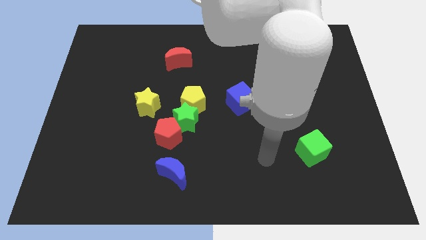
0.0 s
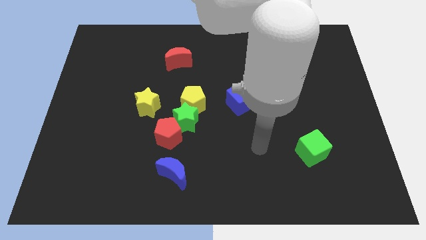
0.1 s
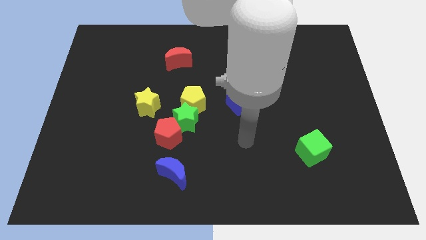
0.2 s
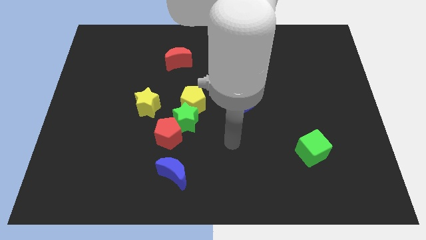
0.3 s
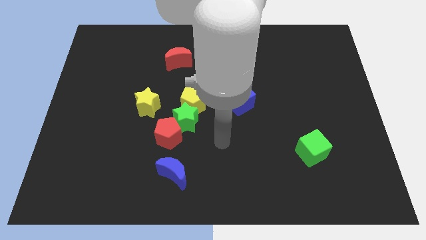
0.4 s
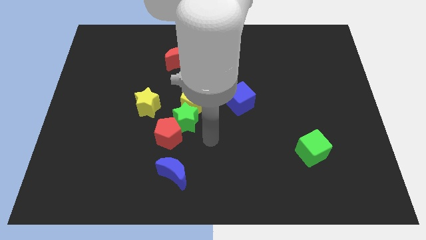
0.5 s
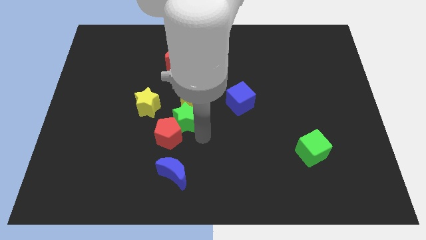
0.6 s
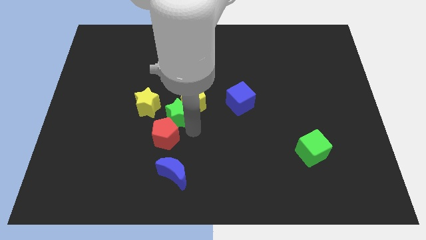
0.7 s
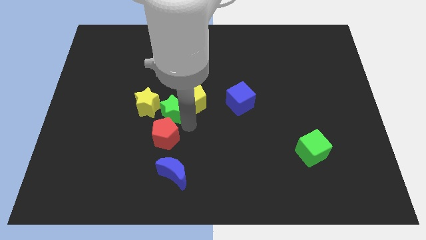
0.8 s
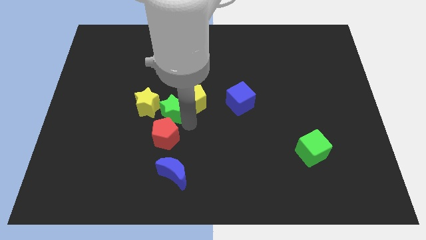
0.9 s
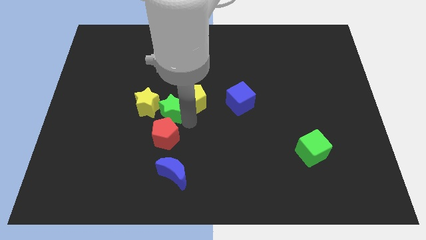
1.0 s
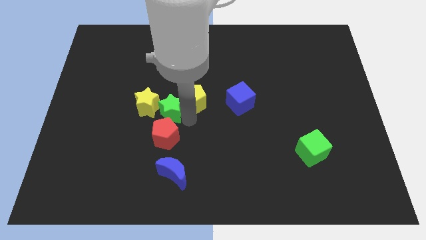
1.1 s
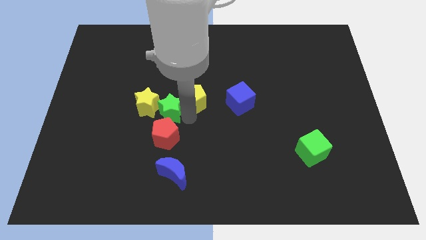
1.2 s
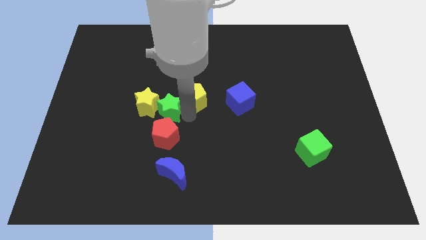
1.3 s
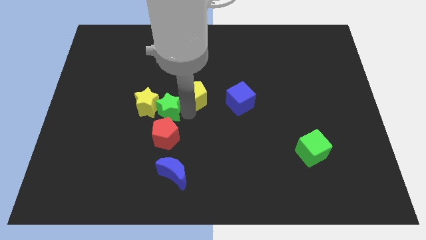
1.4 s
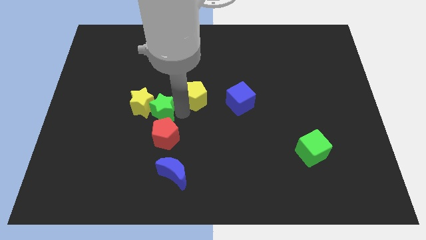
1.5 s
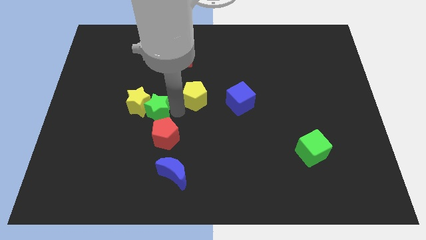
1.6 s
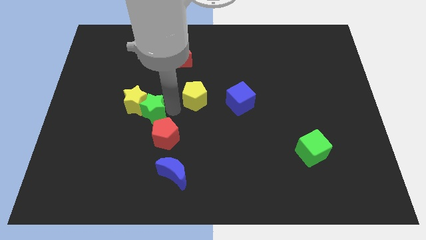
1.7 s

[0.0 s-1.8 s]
separate the yellow pentagon from the green star

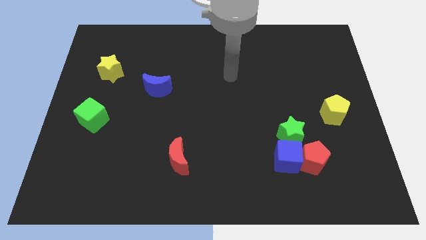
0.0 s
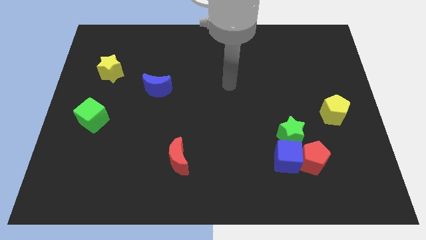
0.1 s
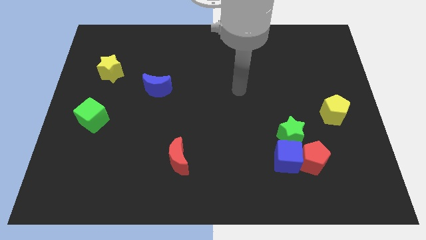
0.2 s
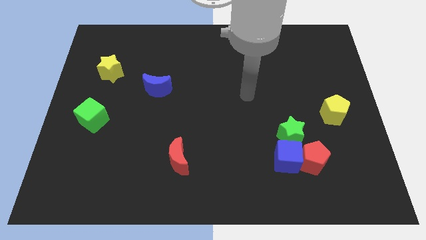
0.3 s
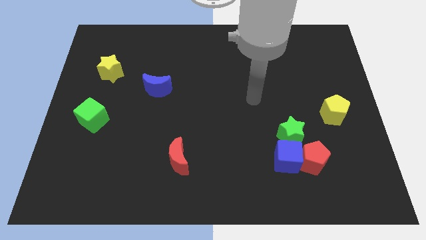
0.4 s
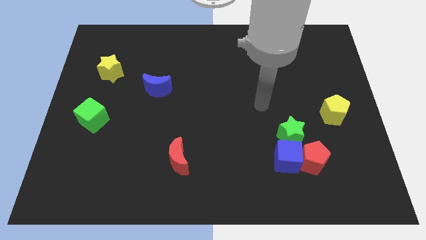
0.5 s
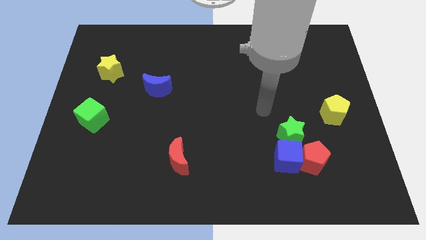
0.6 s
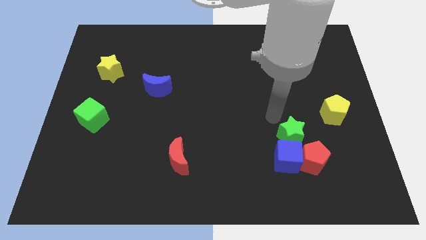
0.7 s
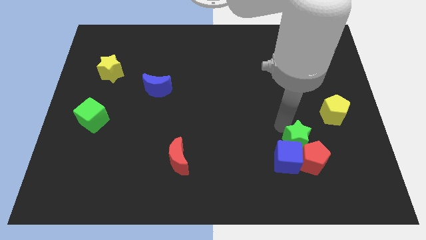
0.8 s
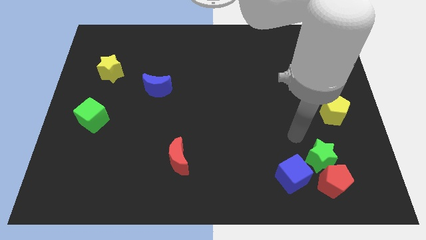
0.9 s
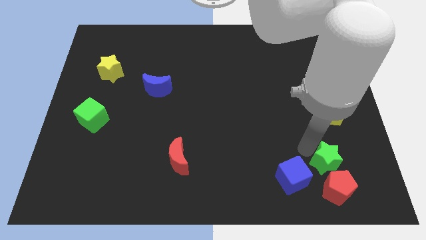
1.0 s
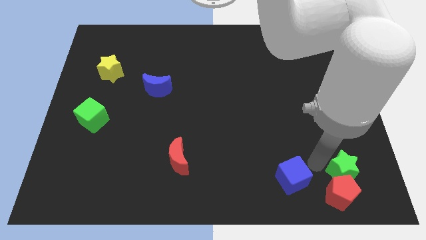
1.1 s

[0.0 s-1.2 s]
pull the blue cube apart from the red pentagon and green star

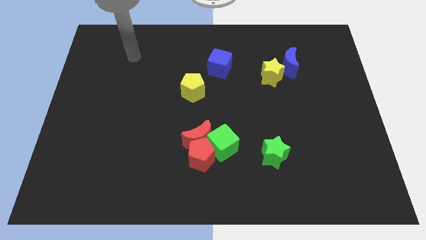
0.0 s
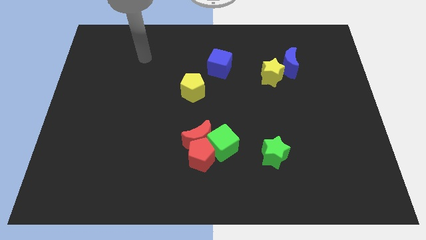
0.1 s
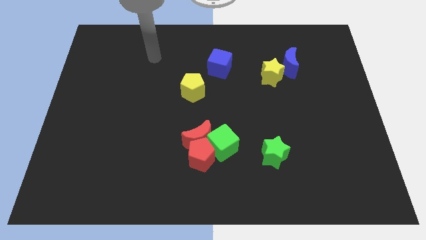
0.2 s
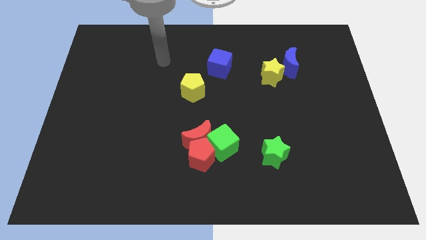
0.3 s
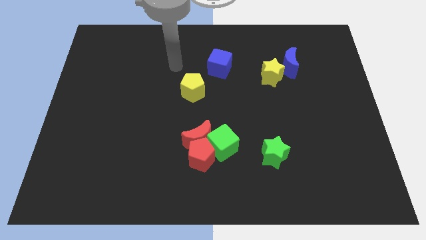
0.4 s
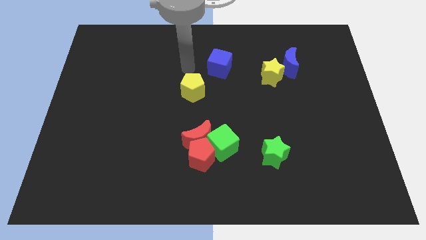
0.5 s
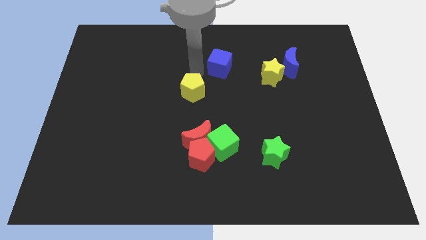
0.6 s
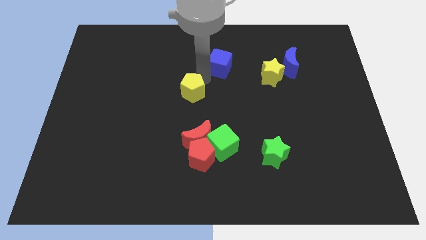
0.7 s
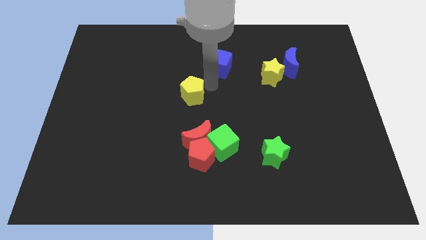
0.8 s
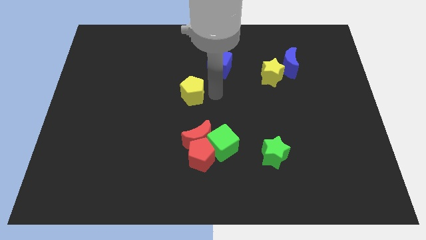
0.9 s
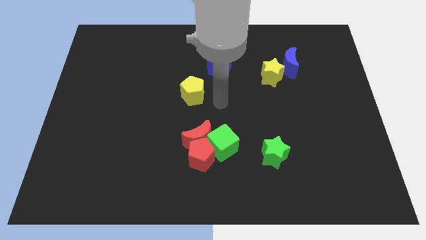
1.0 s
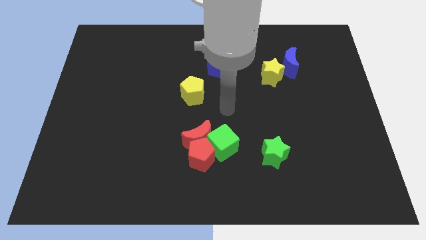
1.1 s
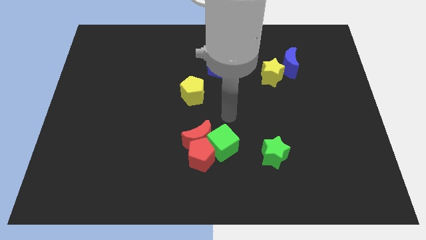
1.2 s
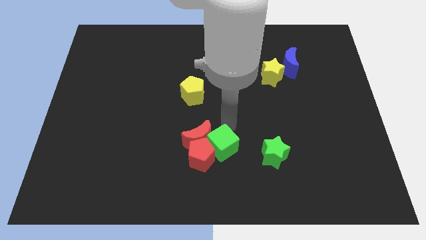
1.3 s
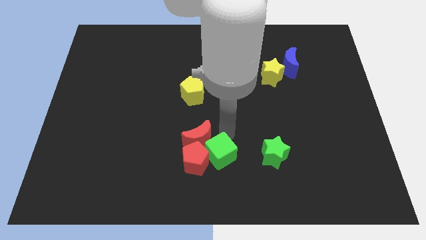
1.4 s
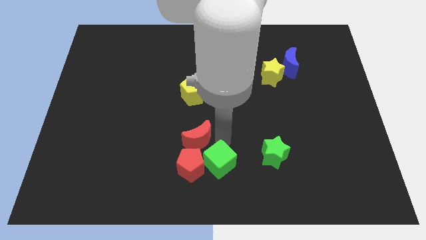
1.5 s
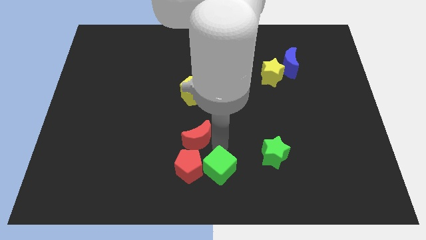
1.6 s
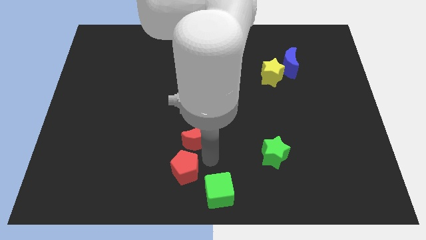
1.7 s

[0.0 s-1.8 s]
move the red moon away from the red pentagon and green cube

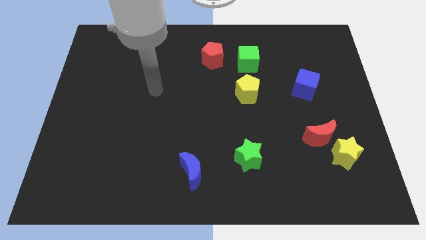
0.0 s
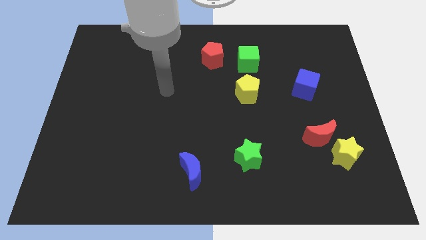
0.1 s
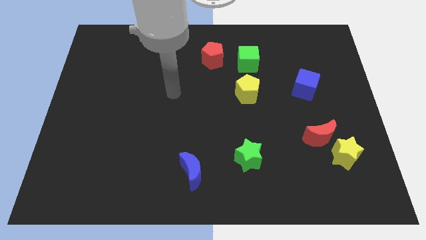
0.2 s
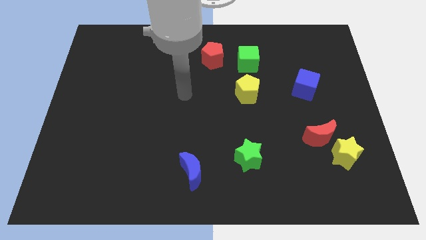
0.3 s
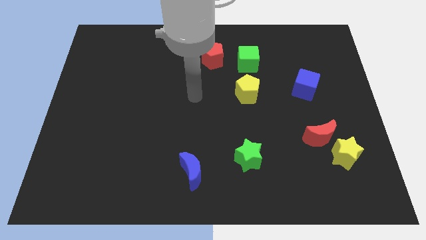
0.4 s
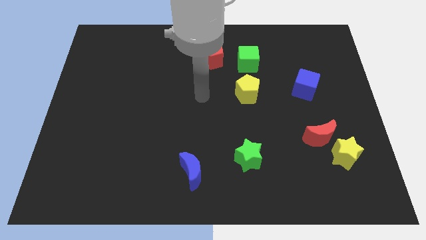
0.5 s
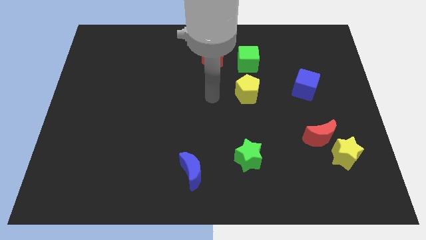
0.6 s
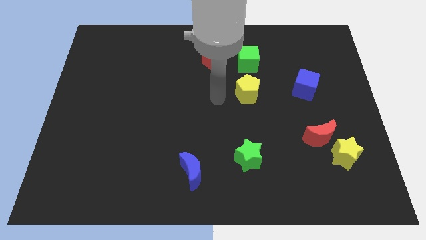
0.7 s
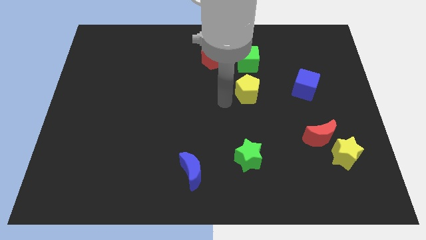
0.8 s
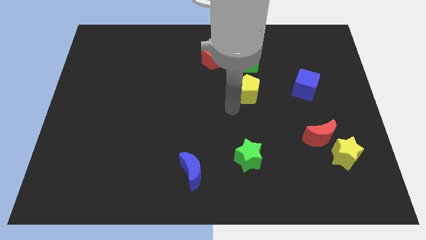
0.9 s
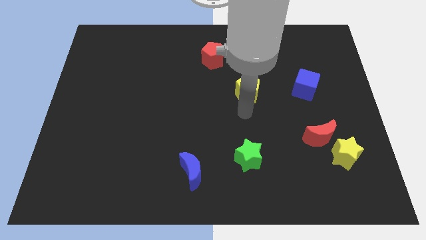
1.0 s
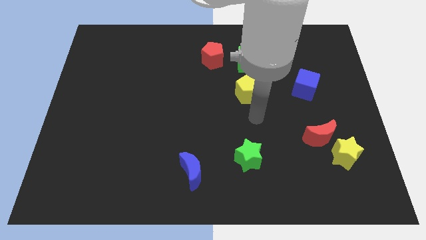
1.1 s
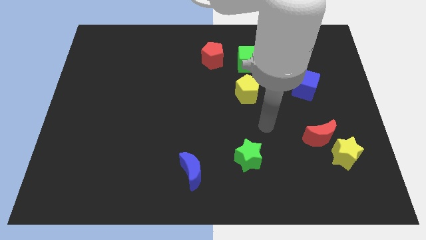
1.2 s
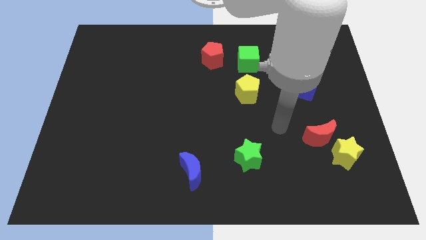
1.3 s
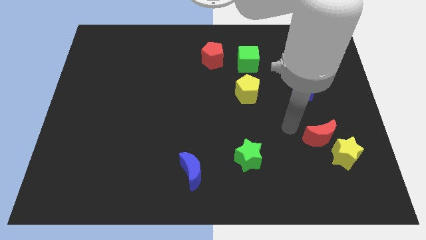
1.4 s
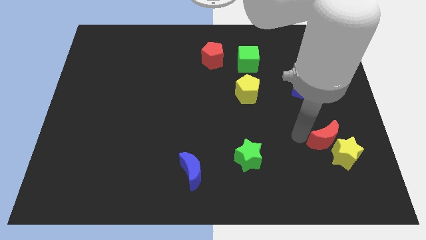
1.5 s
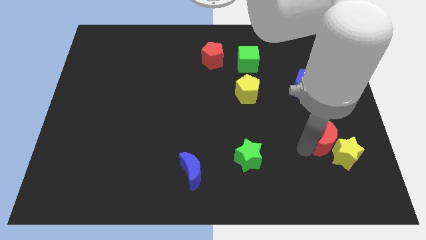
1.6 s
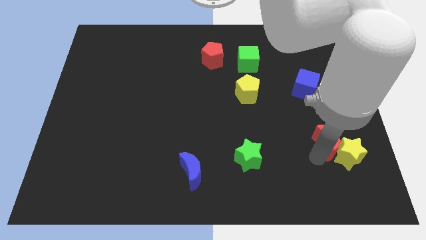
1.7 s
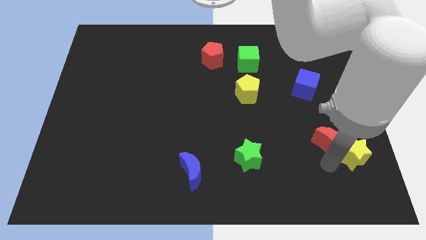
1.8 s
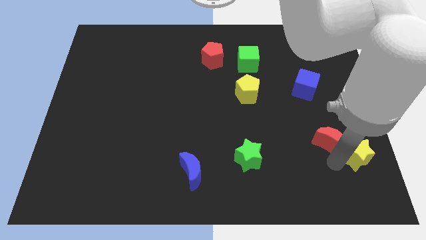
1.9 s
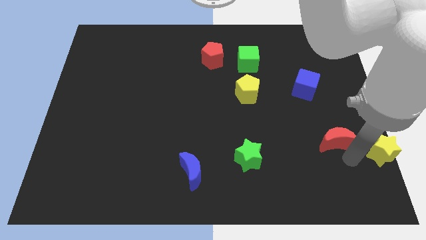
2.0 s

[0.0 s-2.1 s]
separate the red moon from the yellow star

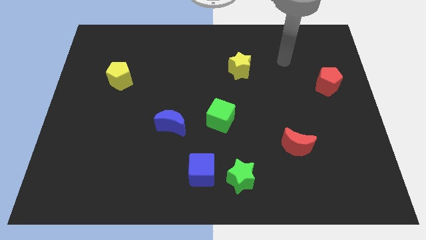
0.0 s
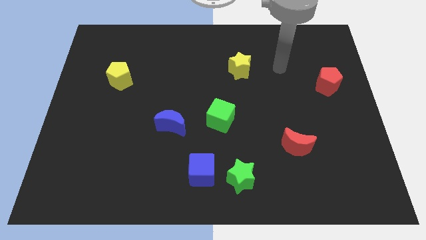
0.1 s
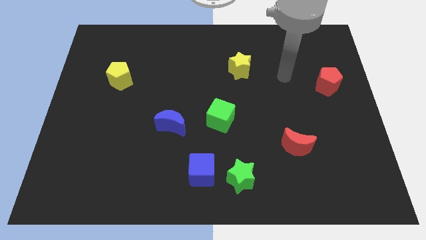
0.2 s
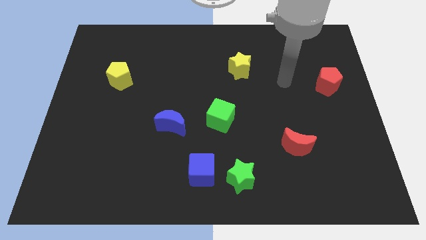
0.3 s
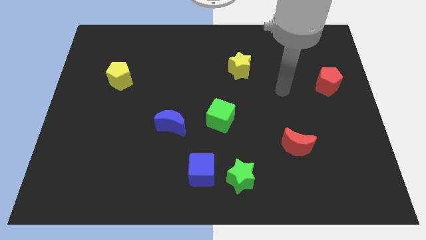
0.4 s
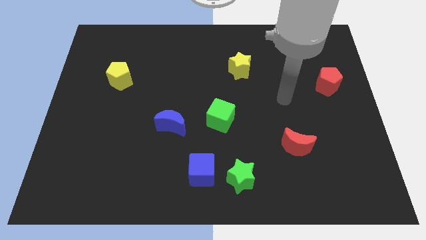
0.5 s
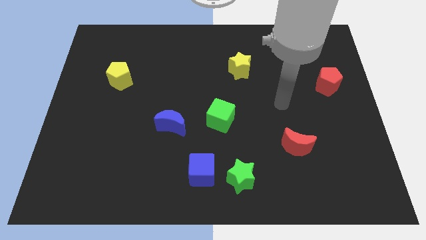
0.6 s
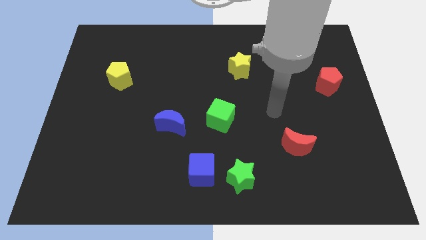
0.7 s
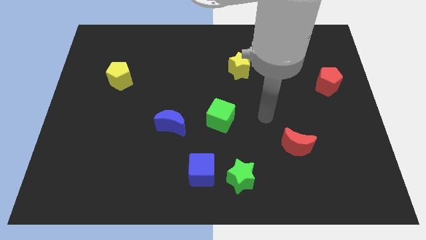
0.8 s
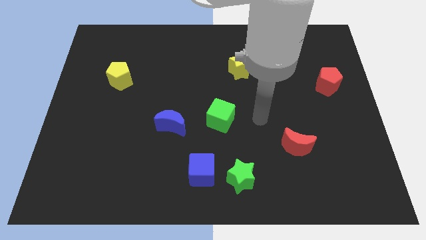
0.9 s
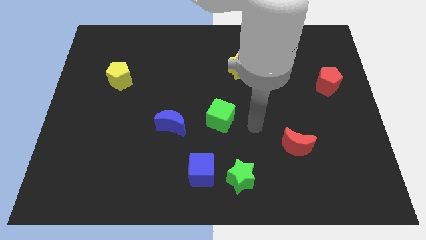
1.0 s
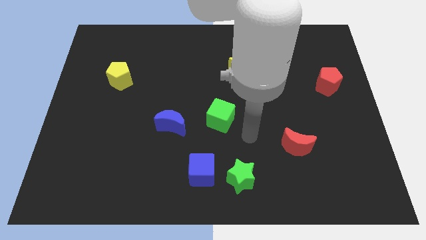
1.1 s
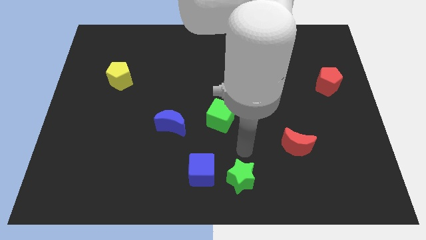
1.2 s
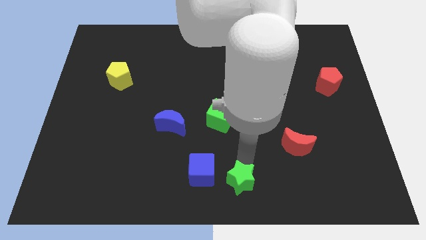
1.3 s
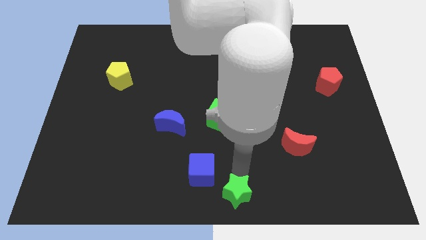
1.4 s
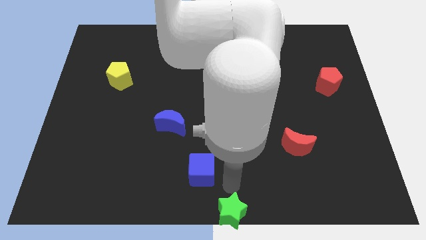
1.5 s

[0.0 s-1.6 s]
separate the blue cube from the green star

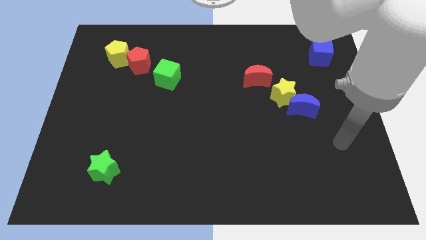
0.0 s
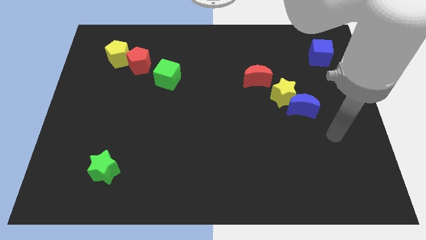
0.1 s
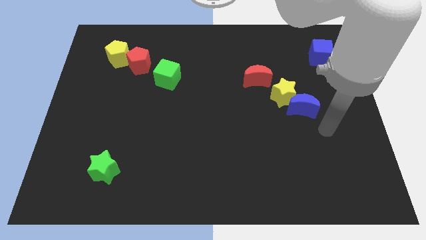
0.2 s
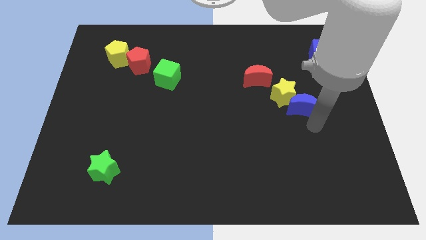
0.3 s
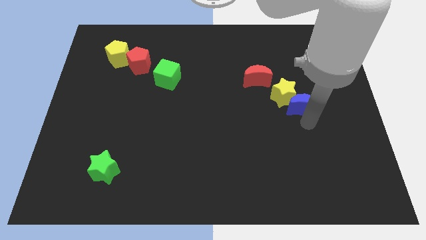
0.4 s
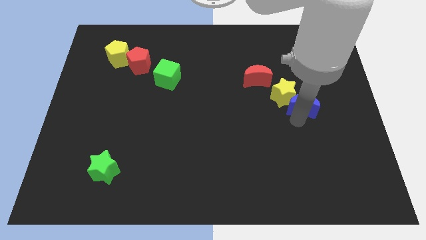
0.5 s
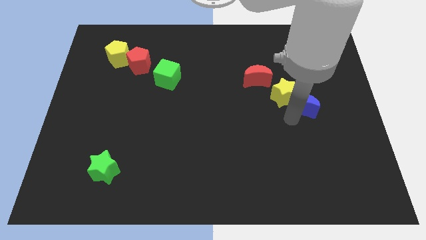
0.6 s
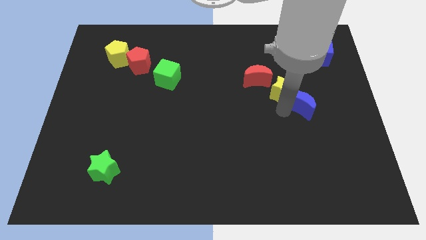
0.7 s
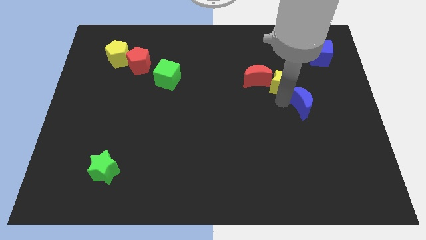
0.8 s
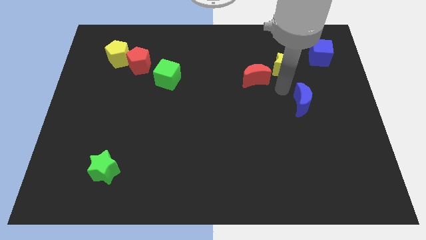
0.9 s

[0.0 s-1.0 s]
separate the blue moon from the yellow star

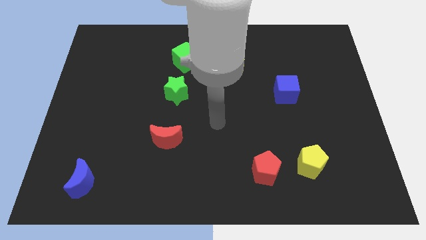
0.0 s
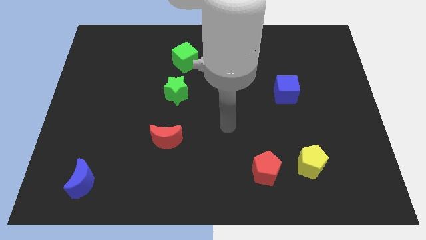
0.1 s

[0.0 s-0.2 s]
pull the red pentagon apart from the yellow pentagon
